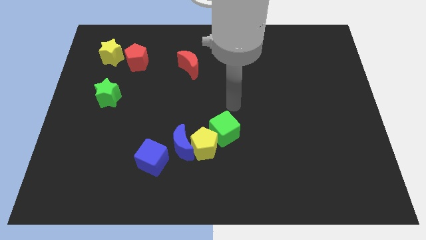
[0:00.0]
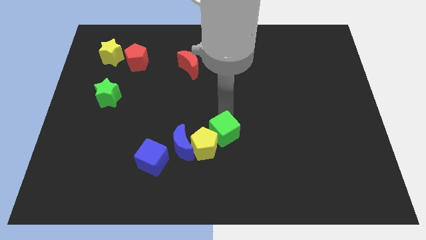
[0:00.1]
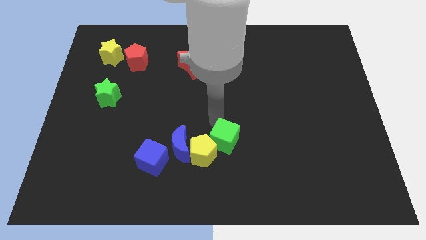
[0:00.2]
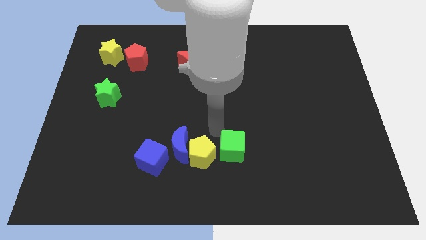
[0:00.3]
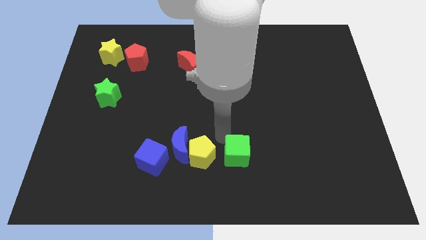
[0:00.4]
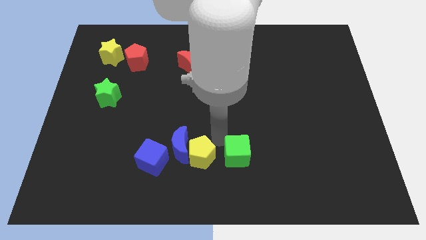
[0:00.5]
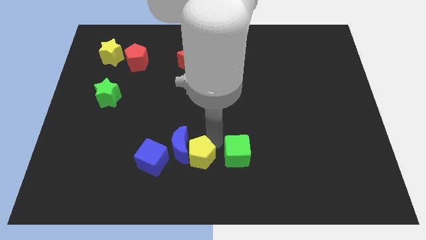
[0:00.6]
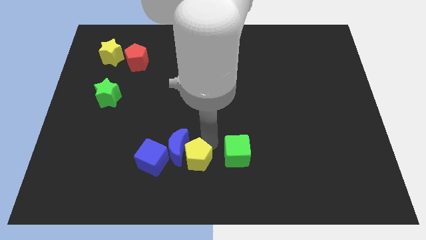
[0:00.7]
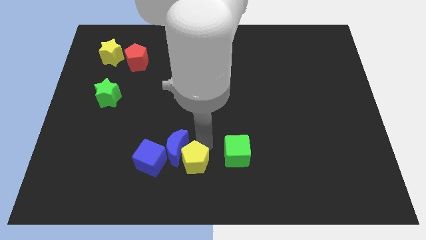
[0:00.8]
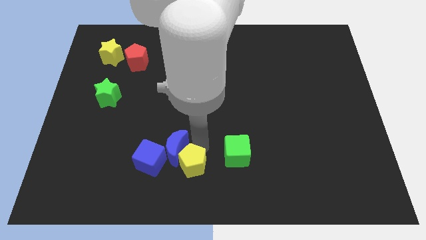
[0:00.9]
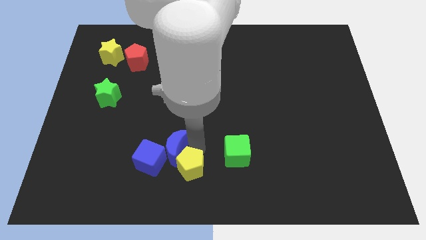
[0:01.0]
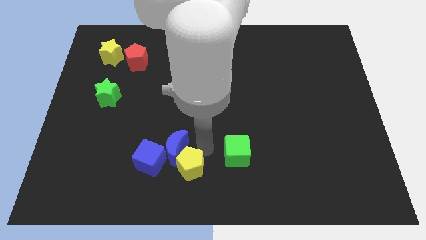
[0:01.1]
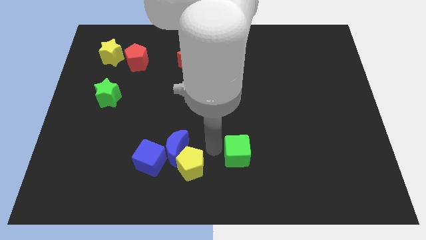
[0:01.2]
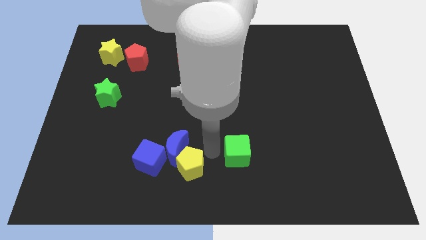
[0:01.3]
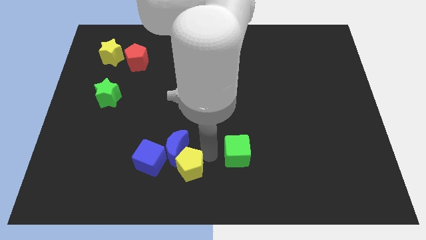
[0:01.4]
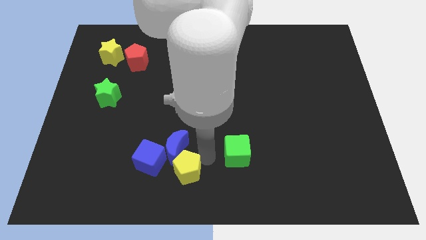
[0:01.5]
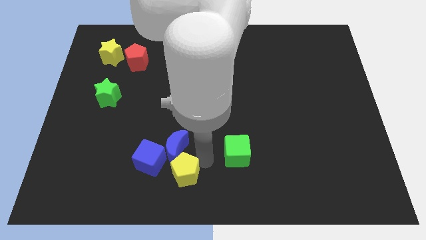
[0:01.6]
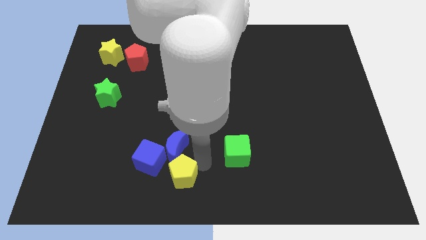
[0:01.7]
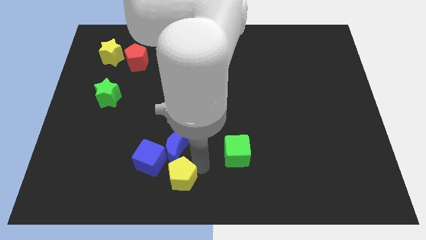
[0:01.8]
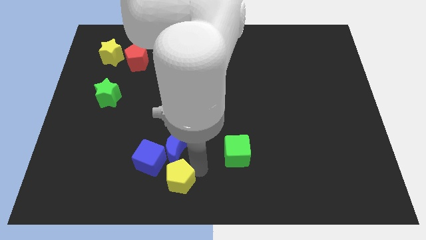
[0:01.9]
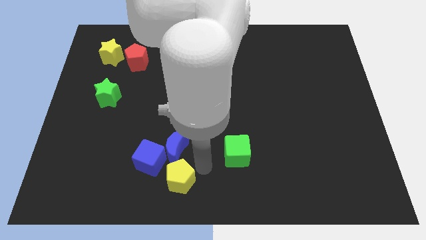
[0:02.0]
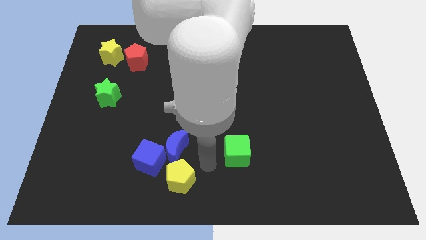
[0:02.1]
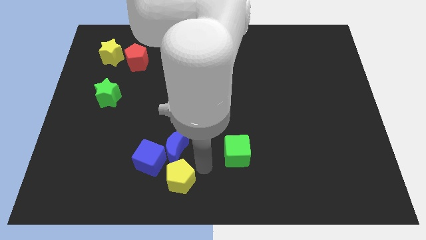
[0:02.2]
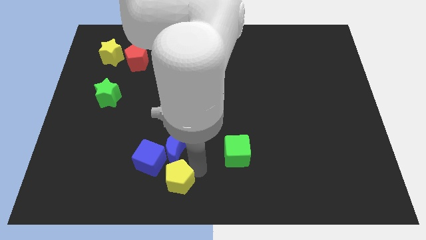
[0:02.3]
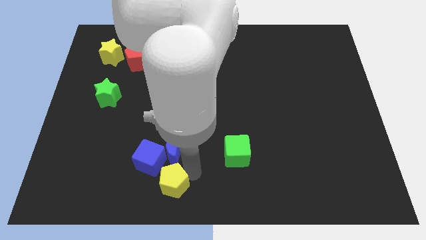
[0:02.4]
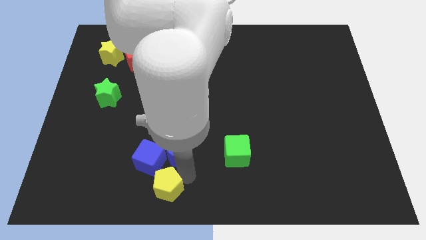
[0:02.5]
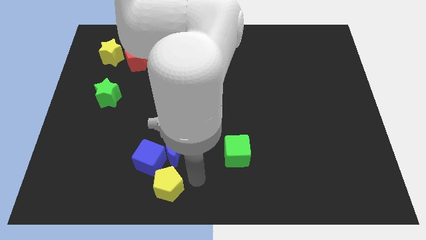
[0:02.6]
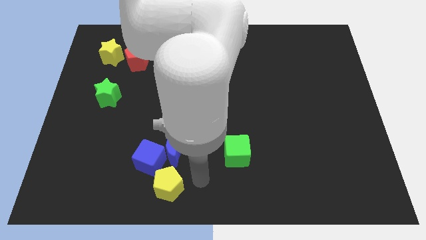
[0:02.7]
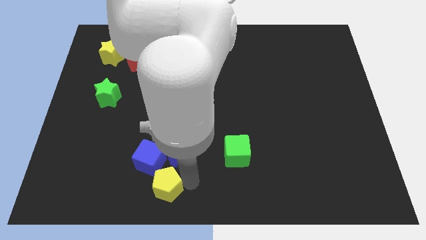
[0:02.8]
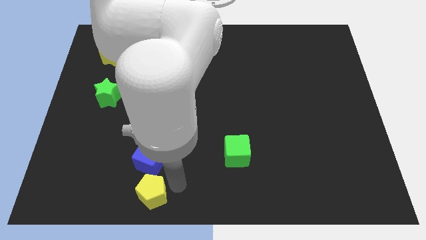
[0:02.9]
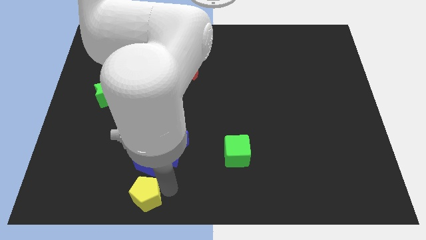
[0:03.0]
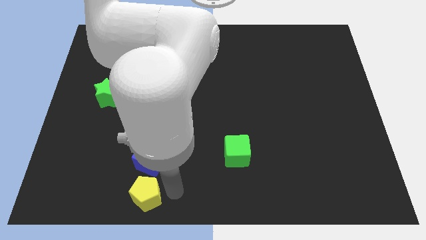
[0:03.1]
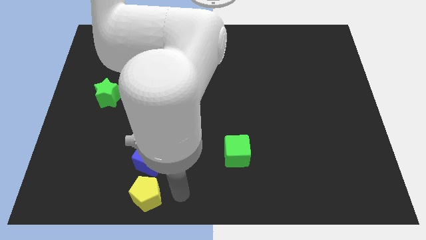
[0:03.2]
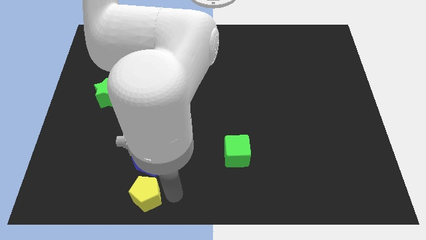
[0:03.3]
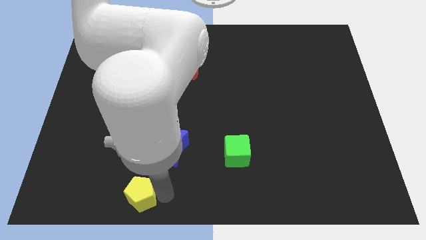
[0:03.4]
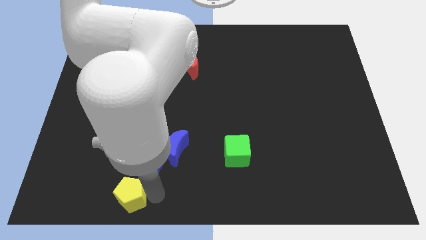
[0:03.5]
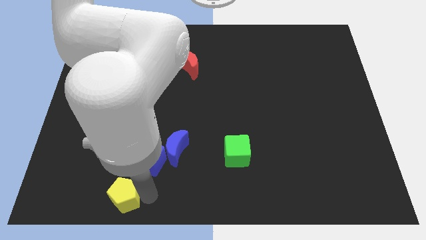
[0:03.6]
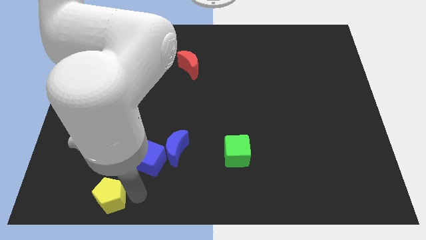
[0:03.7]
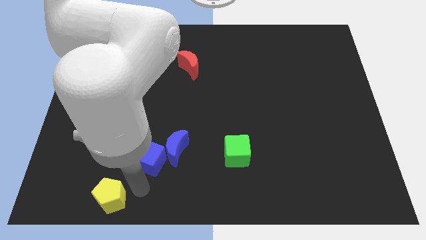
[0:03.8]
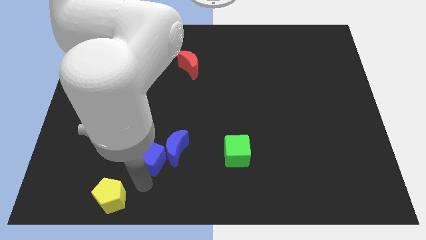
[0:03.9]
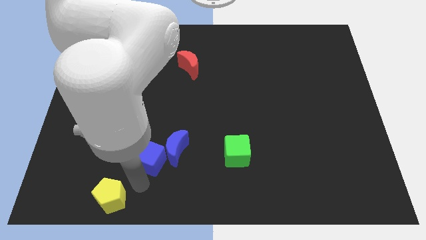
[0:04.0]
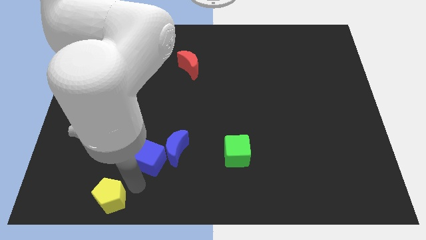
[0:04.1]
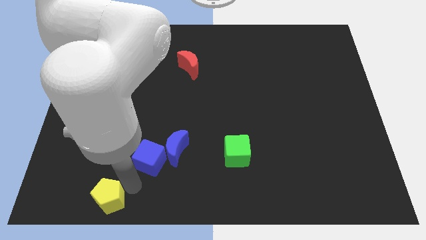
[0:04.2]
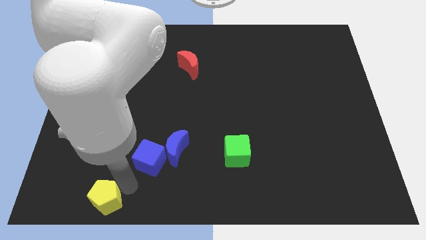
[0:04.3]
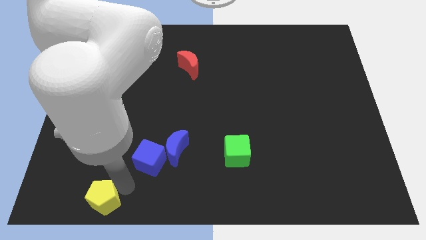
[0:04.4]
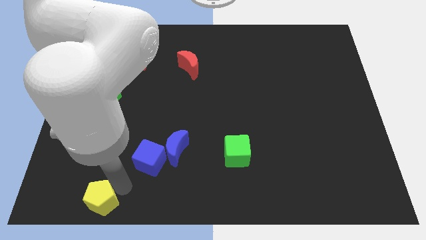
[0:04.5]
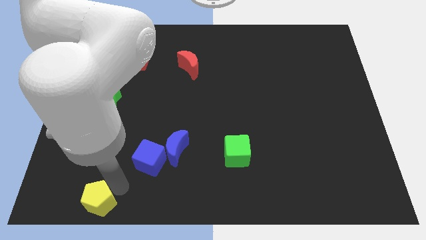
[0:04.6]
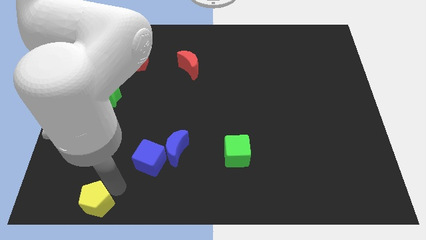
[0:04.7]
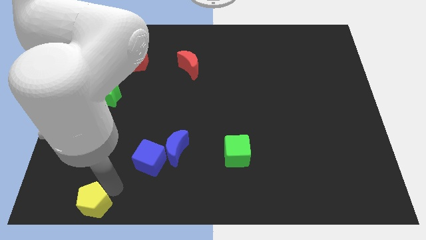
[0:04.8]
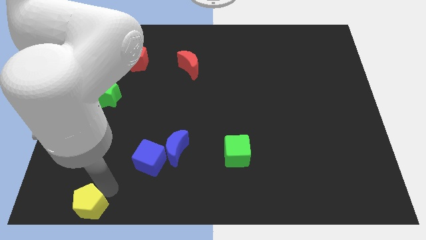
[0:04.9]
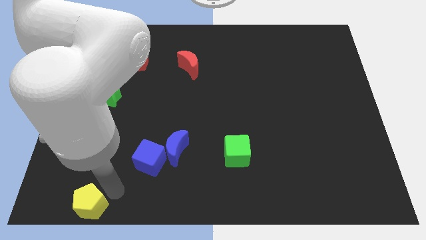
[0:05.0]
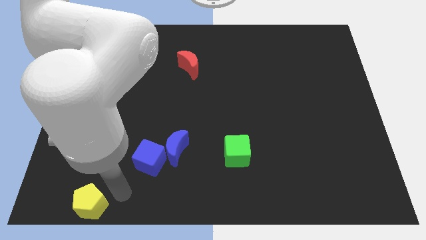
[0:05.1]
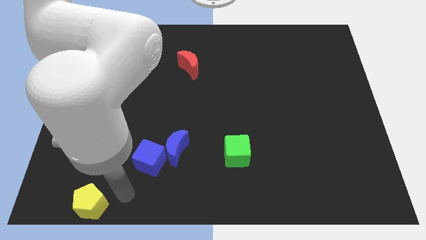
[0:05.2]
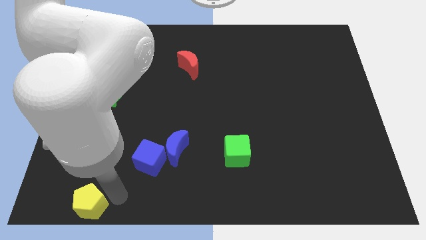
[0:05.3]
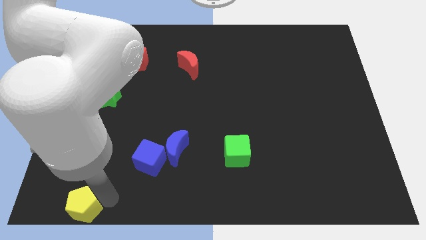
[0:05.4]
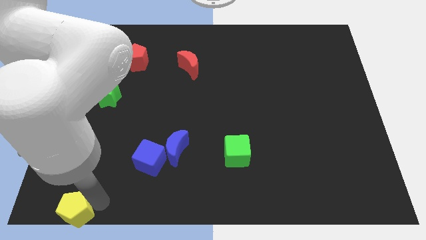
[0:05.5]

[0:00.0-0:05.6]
put the yellow pentagon to the bottom left of the board

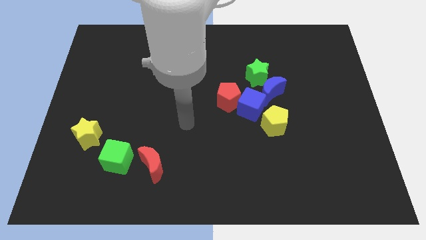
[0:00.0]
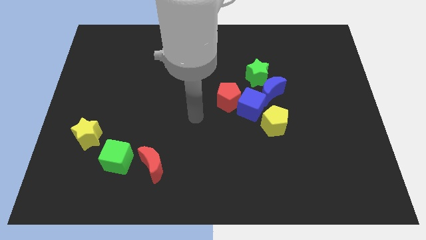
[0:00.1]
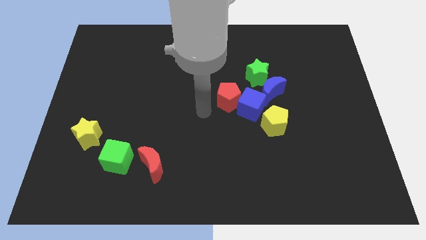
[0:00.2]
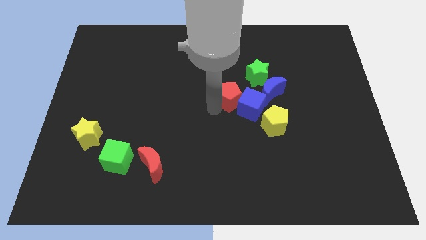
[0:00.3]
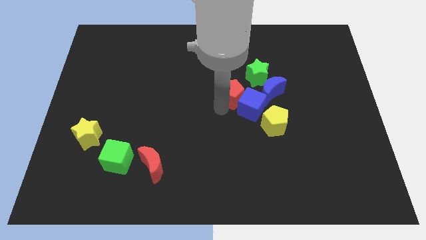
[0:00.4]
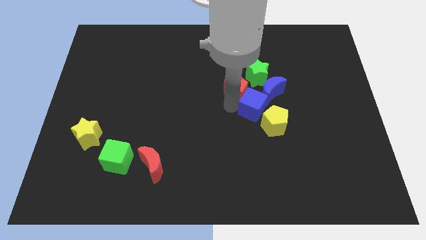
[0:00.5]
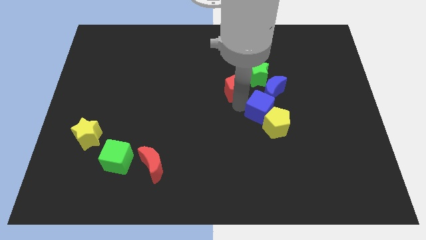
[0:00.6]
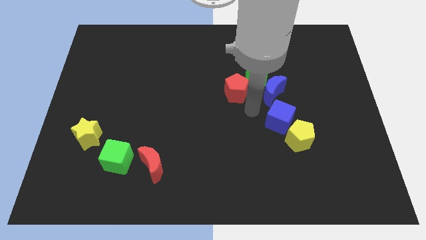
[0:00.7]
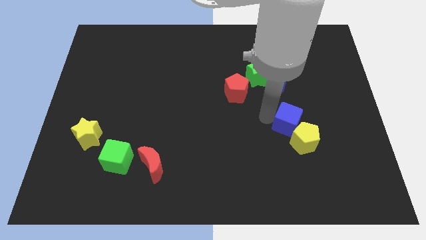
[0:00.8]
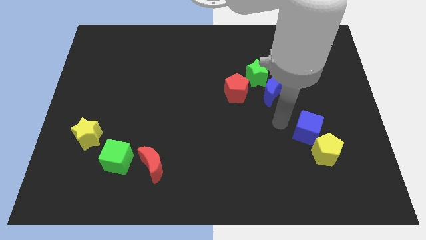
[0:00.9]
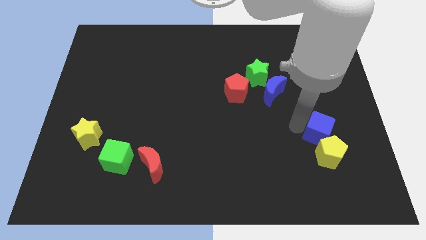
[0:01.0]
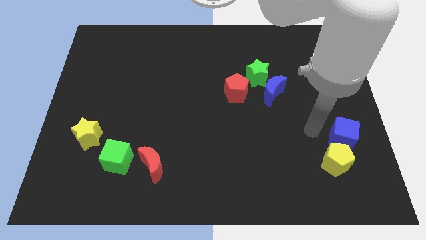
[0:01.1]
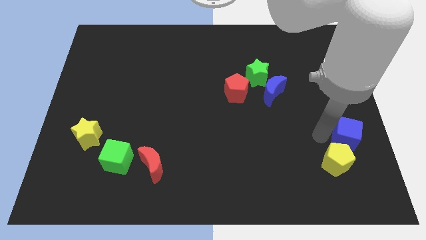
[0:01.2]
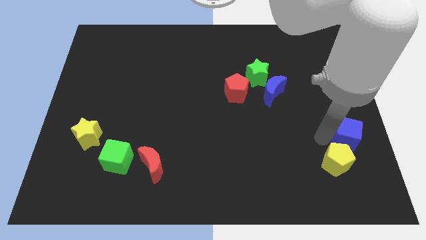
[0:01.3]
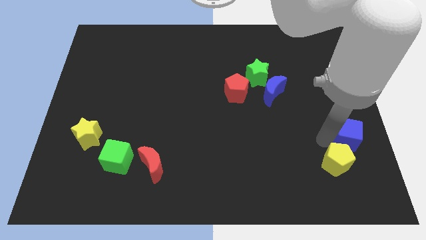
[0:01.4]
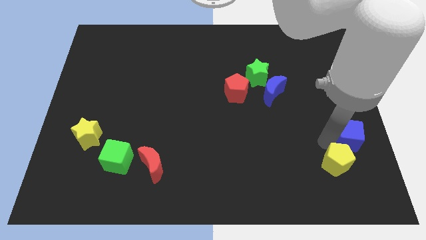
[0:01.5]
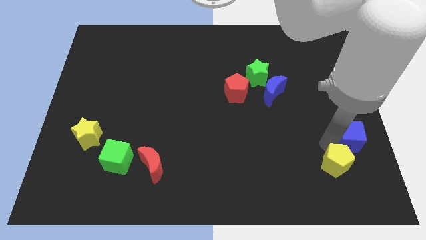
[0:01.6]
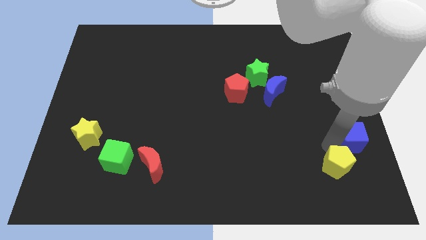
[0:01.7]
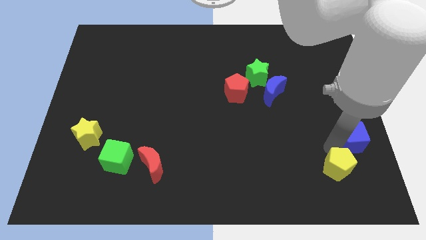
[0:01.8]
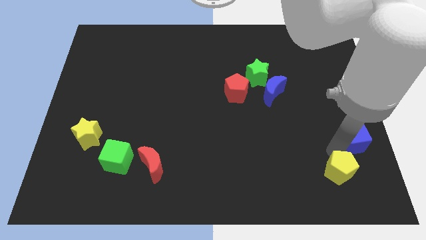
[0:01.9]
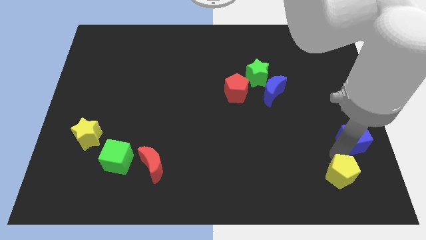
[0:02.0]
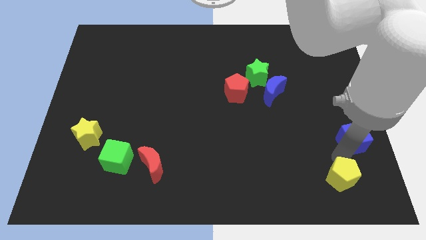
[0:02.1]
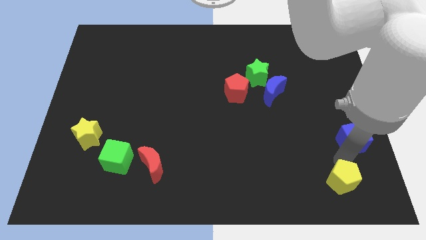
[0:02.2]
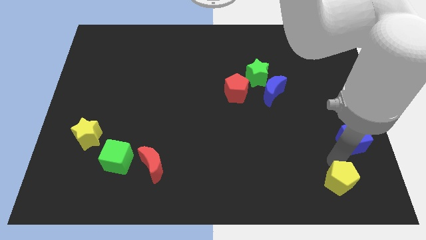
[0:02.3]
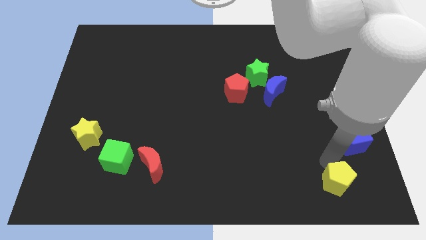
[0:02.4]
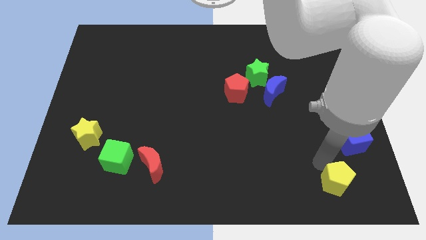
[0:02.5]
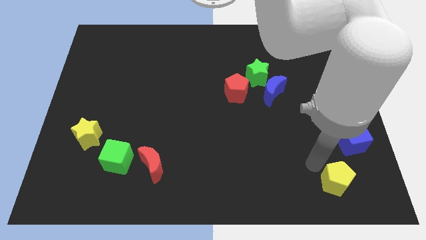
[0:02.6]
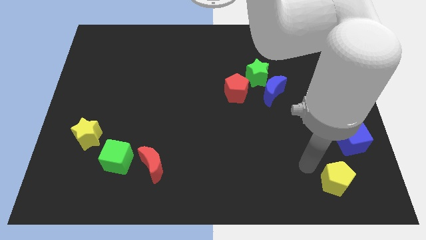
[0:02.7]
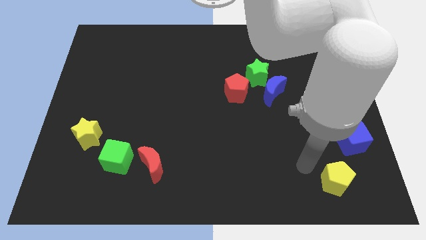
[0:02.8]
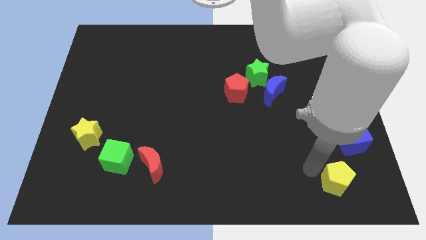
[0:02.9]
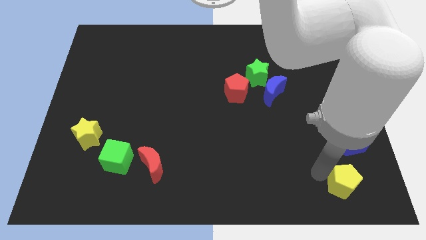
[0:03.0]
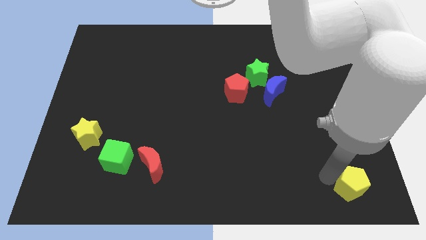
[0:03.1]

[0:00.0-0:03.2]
push the yellow pentagon to the bottom right corner
